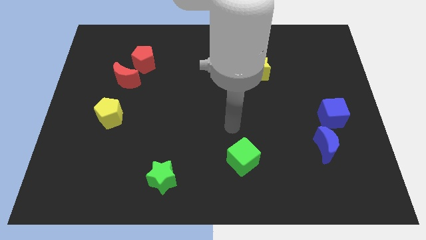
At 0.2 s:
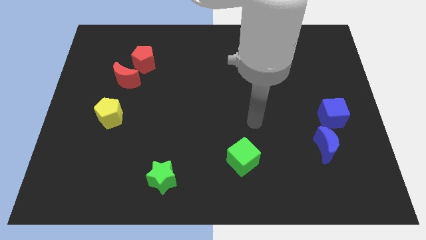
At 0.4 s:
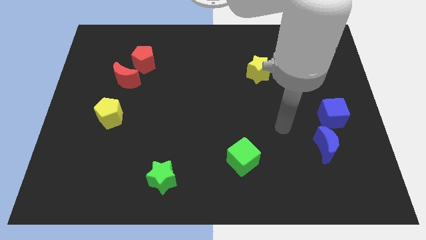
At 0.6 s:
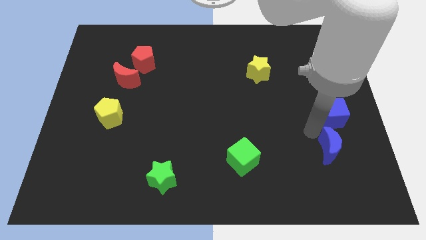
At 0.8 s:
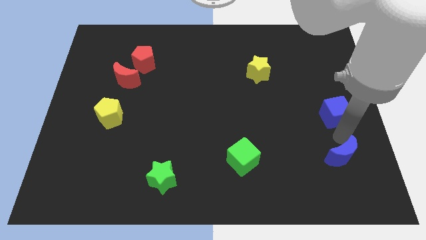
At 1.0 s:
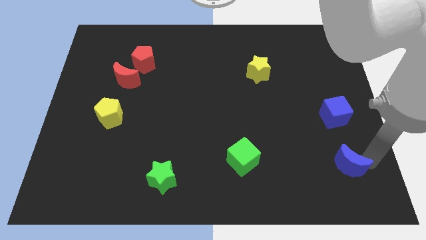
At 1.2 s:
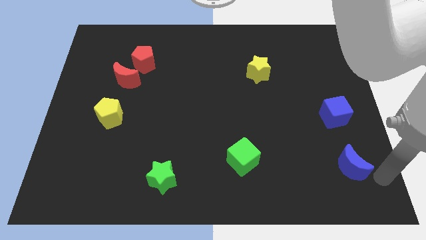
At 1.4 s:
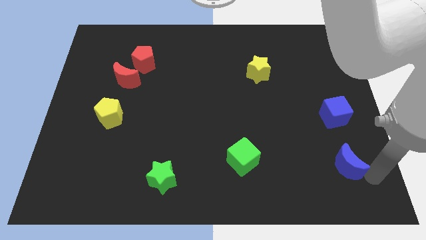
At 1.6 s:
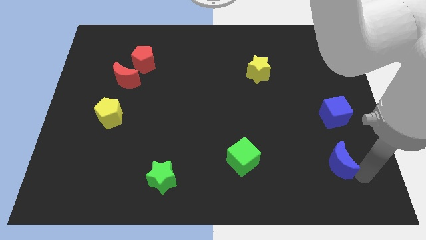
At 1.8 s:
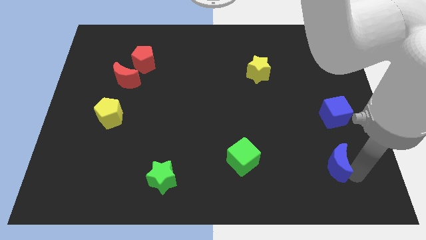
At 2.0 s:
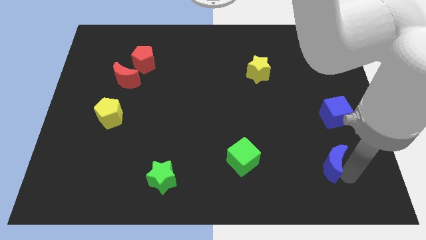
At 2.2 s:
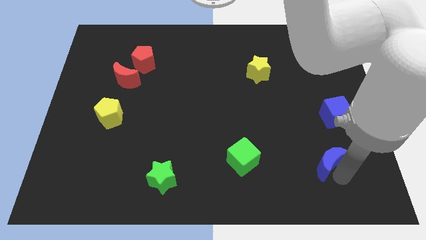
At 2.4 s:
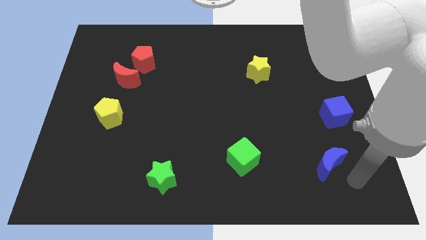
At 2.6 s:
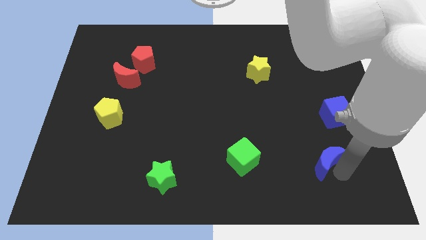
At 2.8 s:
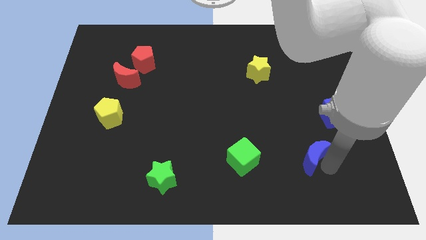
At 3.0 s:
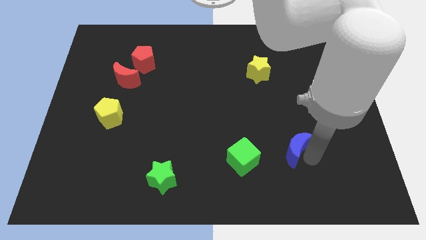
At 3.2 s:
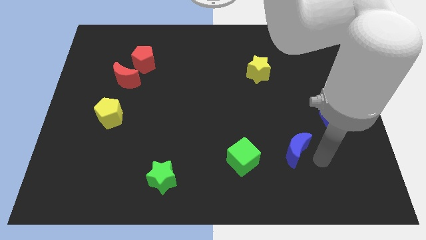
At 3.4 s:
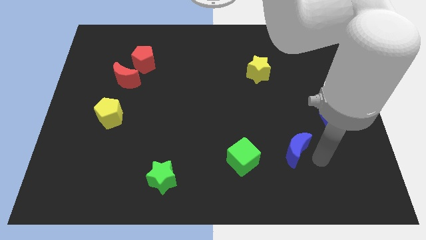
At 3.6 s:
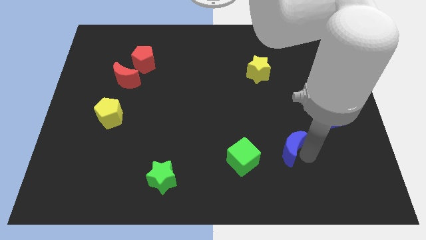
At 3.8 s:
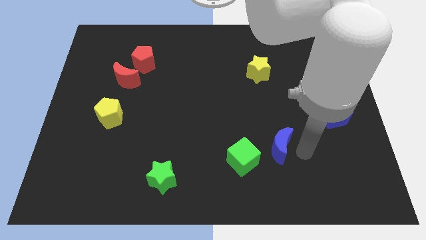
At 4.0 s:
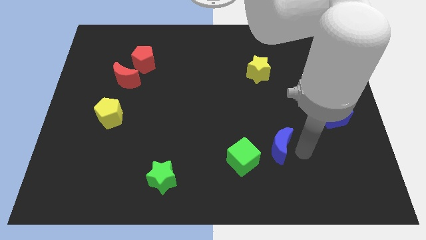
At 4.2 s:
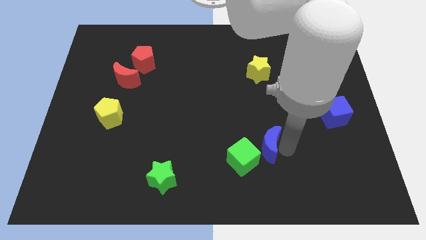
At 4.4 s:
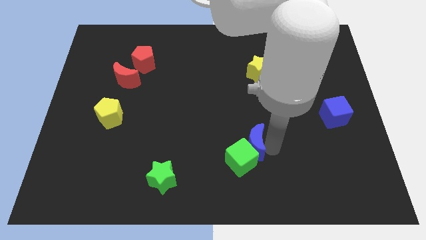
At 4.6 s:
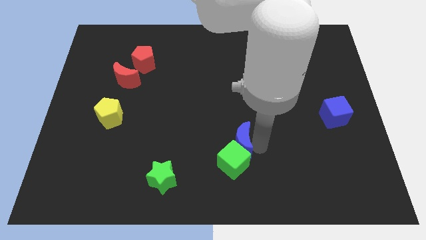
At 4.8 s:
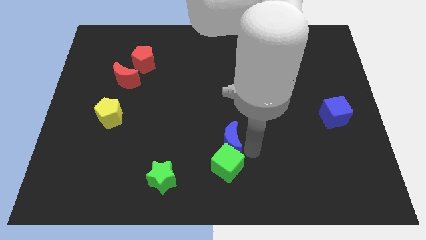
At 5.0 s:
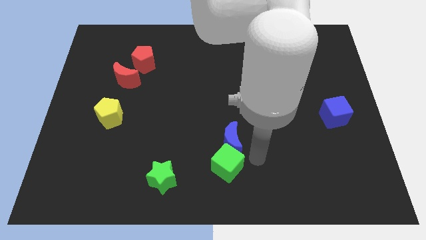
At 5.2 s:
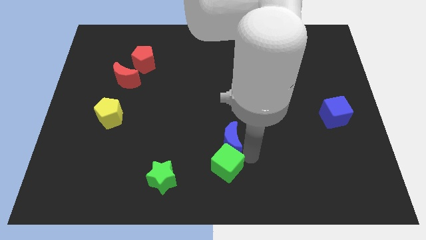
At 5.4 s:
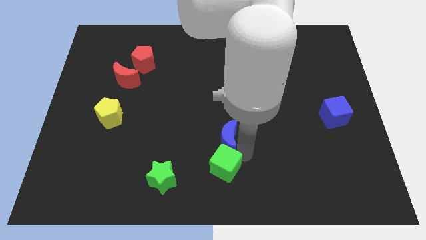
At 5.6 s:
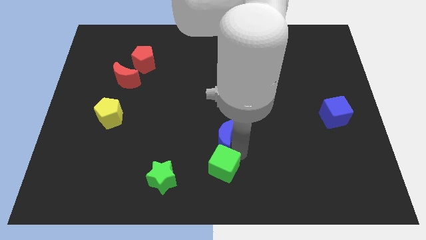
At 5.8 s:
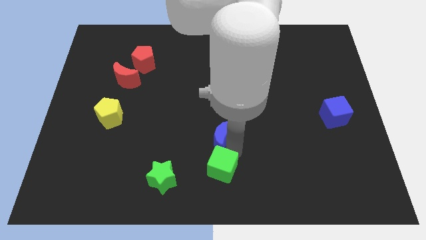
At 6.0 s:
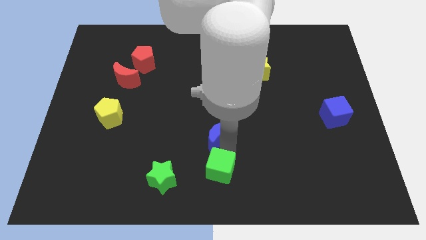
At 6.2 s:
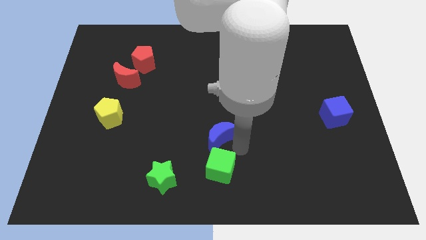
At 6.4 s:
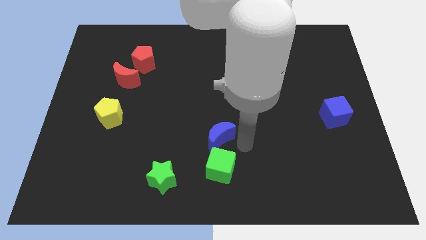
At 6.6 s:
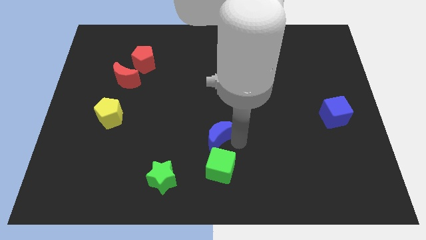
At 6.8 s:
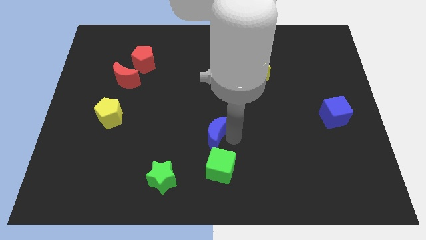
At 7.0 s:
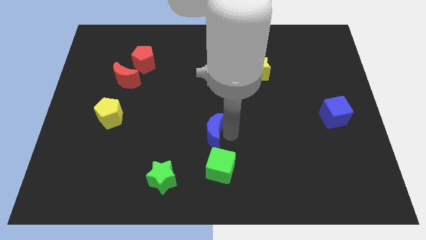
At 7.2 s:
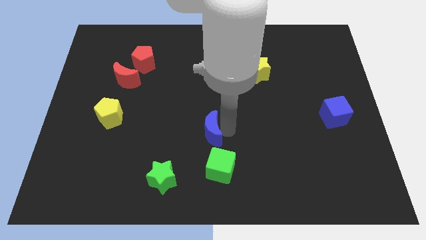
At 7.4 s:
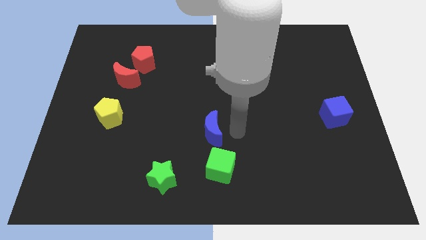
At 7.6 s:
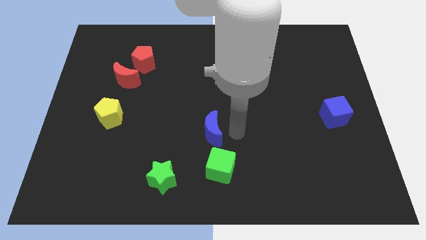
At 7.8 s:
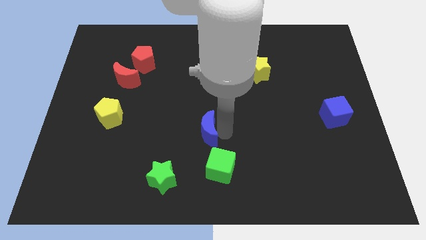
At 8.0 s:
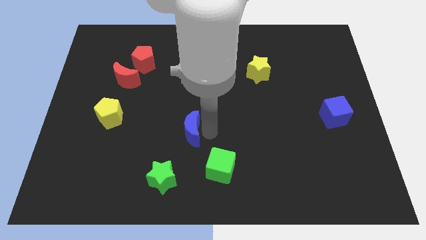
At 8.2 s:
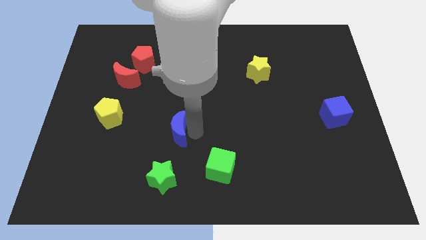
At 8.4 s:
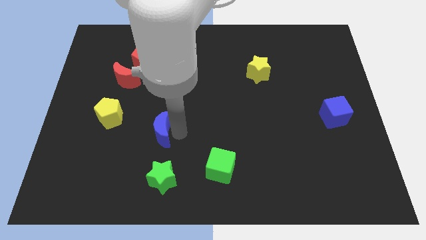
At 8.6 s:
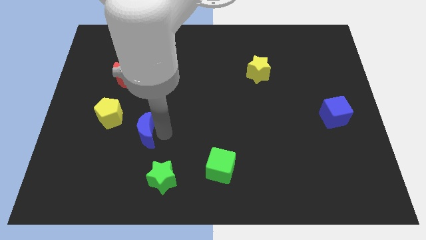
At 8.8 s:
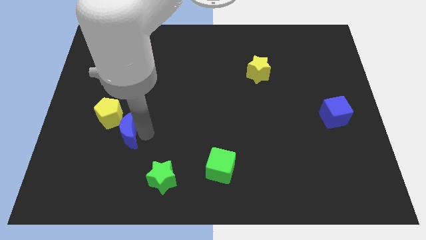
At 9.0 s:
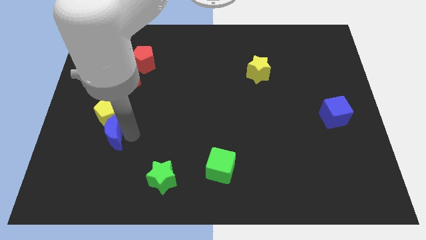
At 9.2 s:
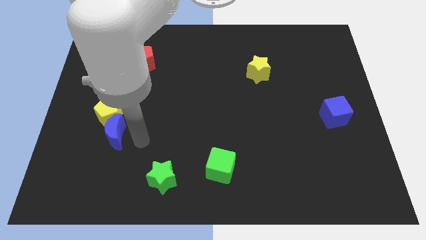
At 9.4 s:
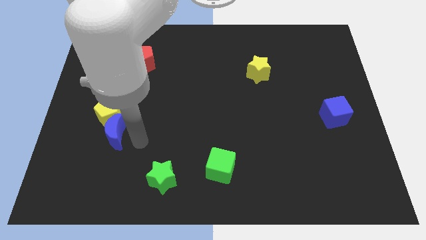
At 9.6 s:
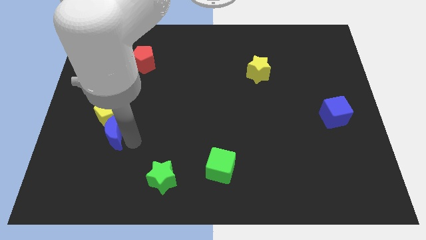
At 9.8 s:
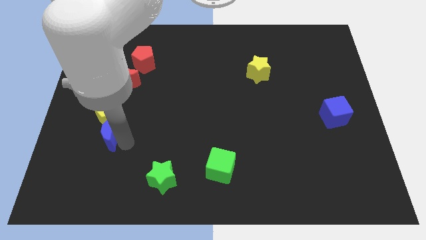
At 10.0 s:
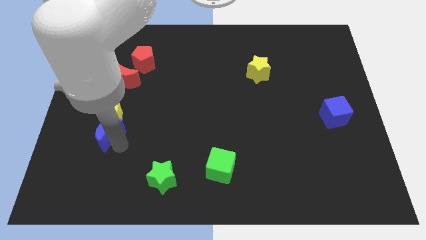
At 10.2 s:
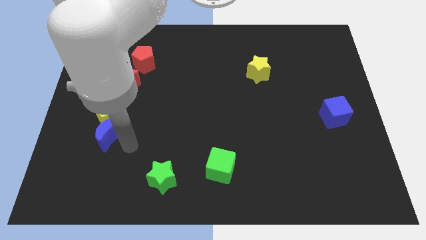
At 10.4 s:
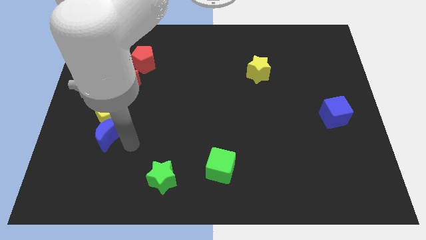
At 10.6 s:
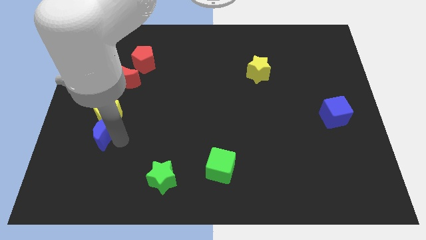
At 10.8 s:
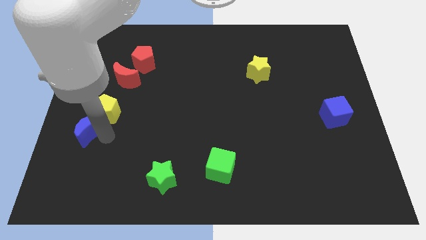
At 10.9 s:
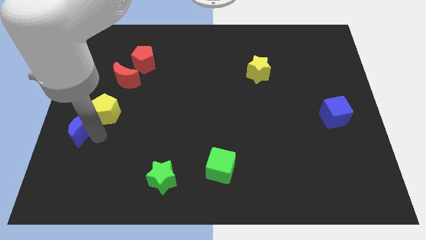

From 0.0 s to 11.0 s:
push the blue moon to the center left
